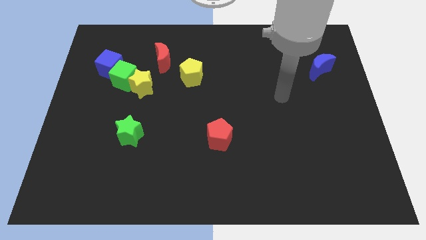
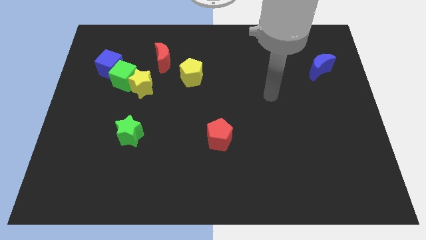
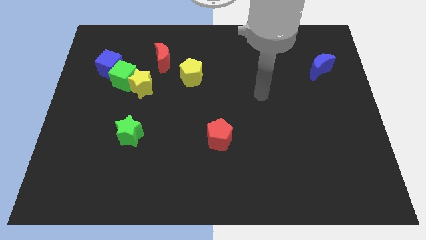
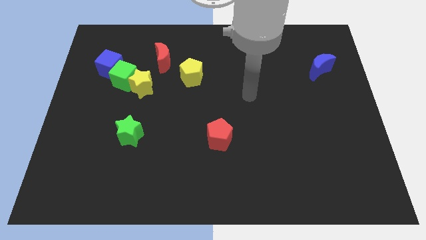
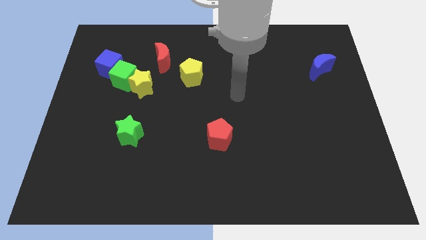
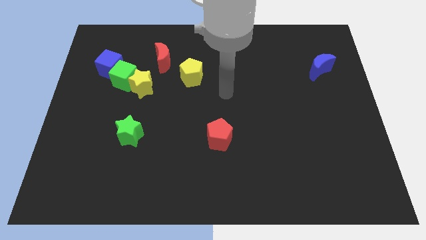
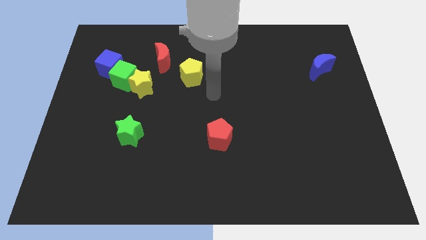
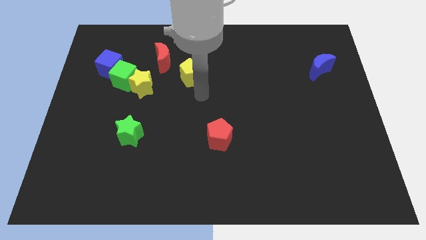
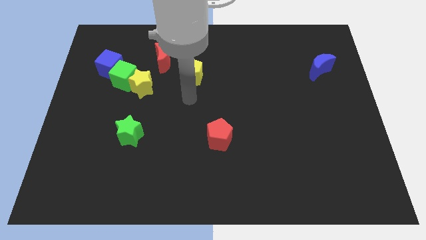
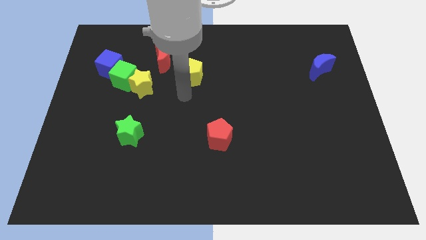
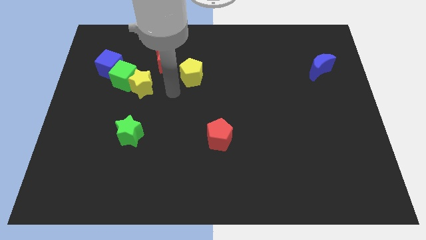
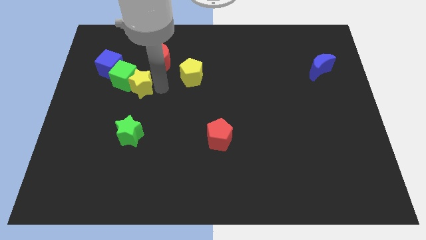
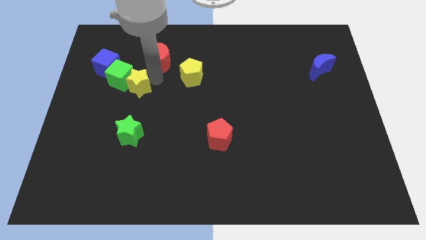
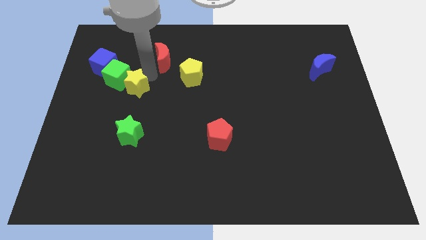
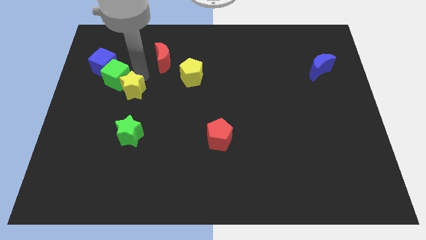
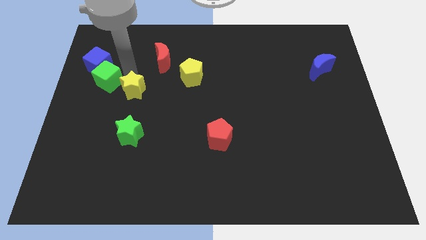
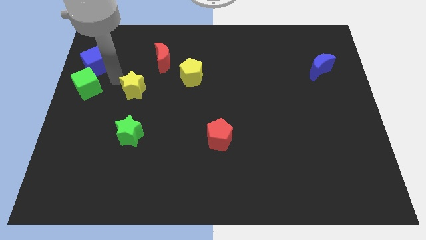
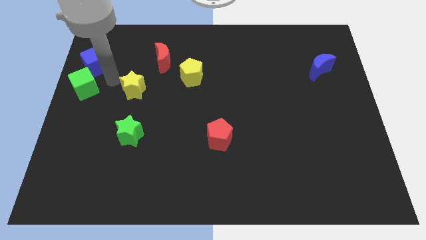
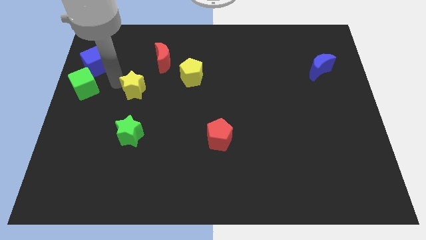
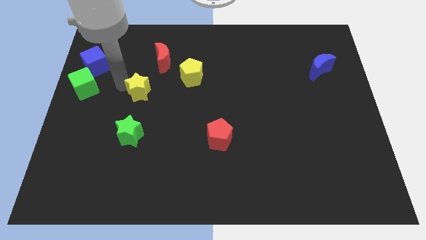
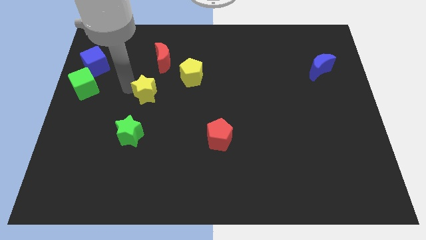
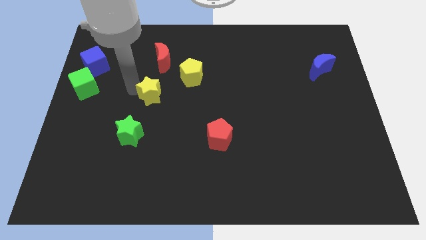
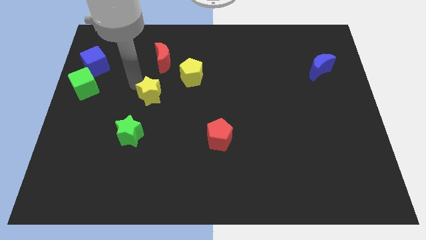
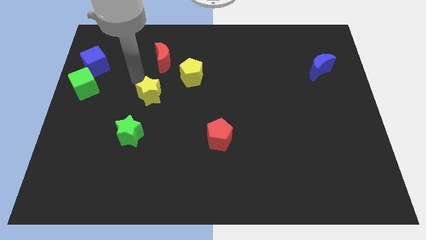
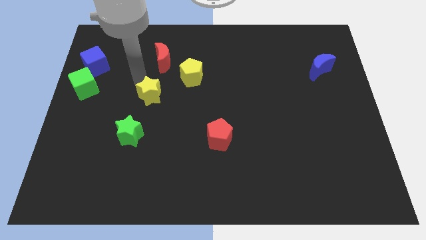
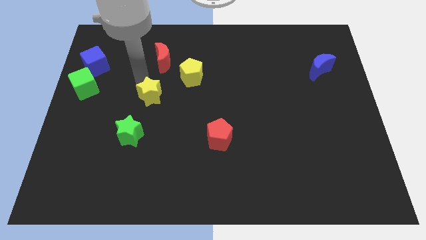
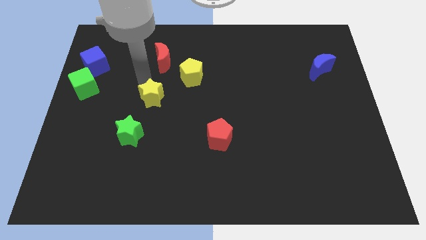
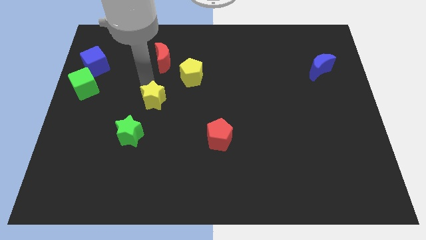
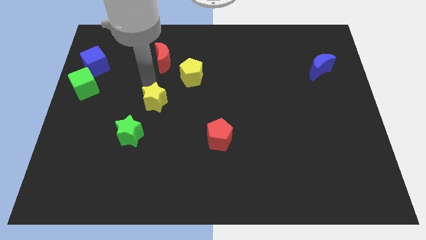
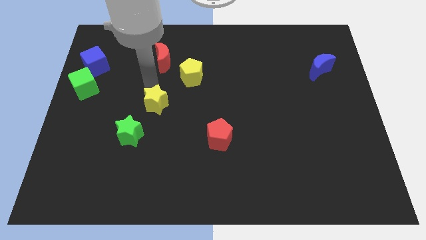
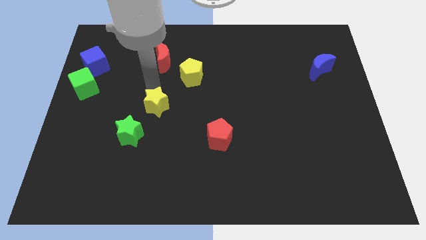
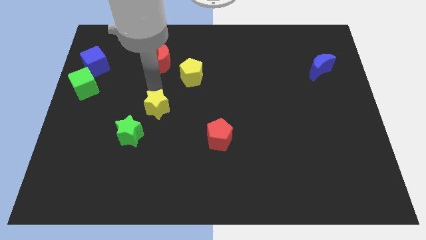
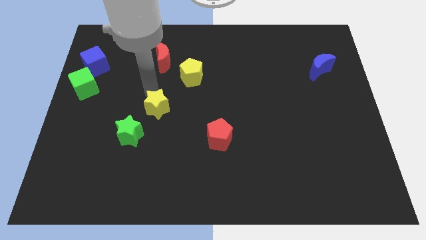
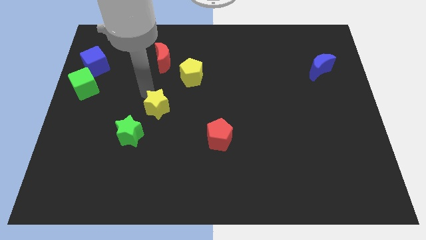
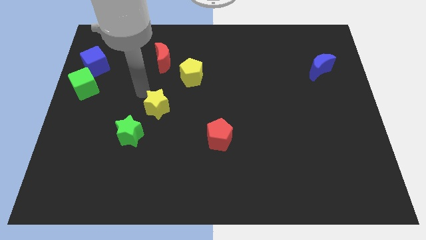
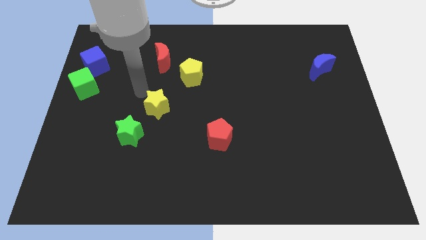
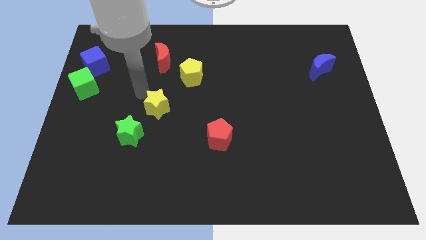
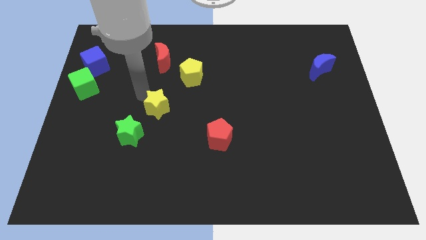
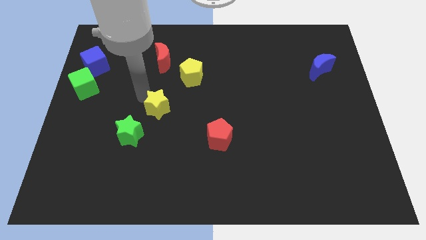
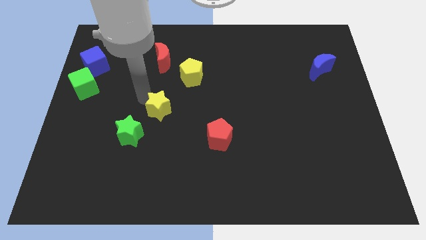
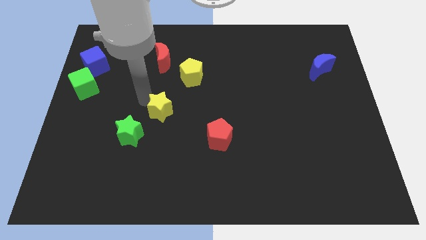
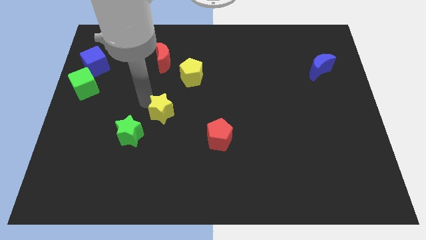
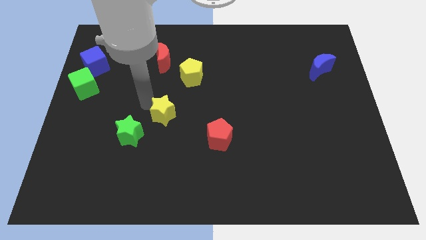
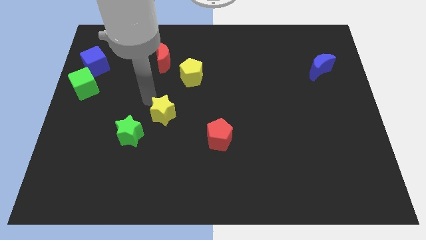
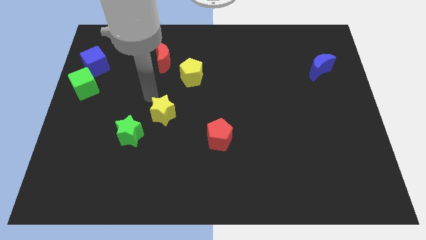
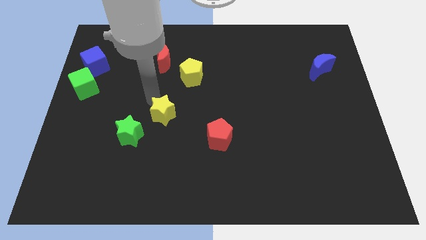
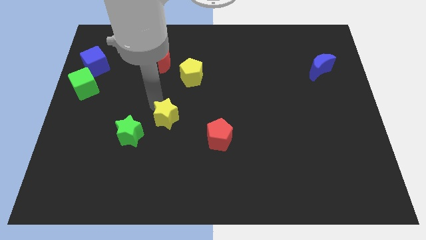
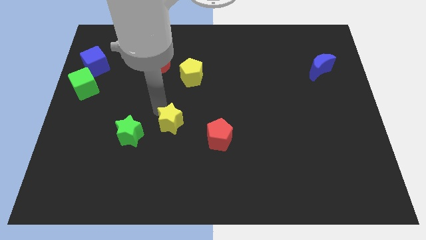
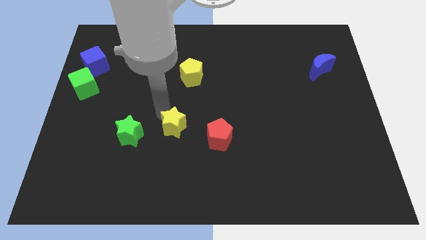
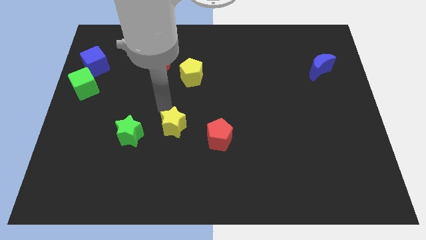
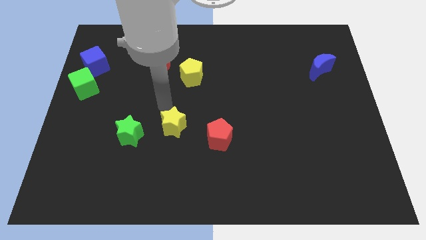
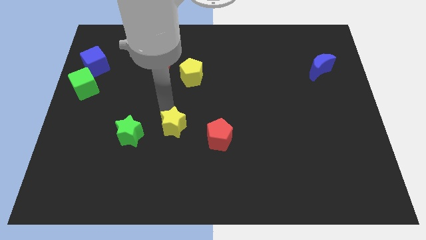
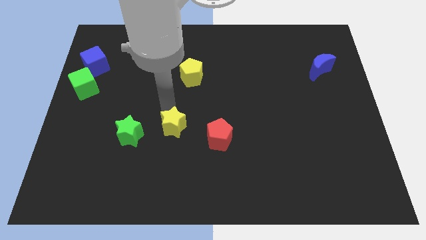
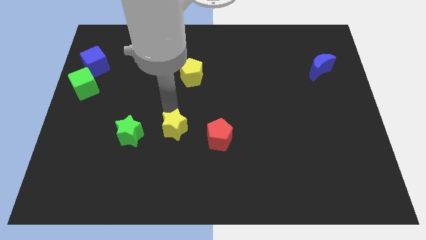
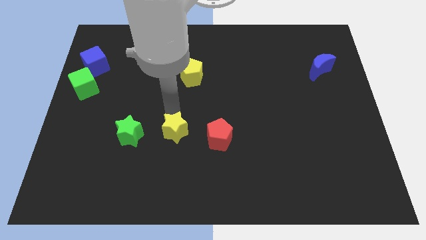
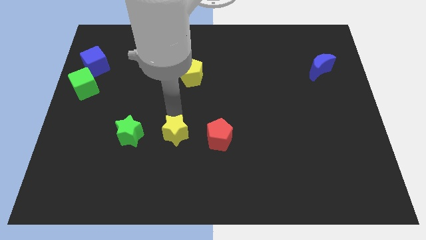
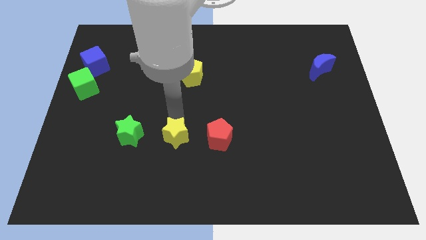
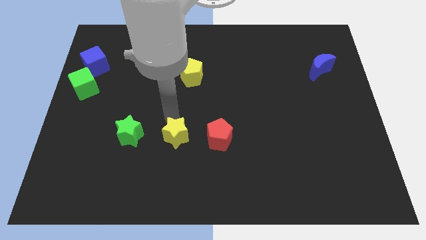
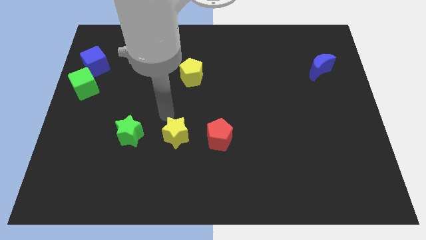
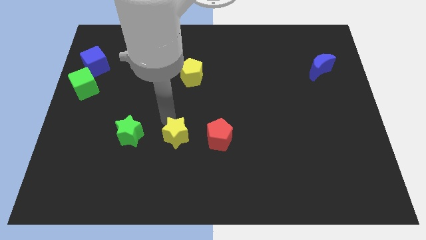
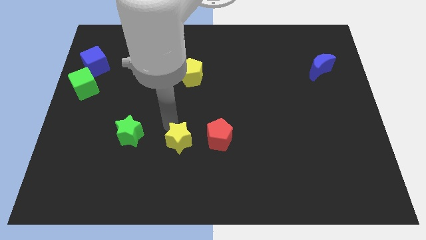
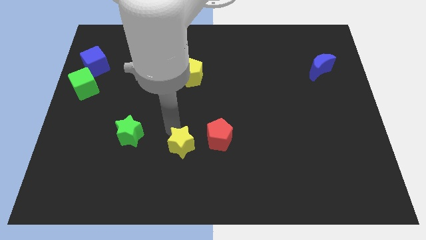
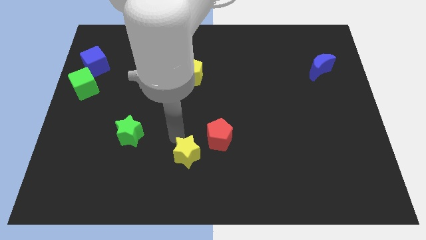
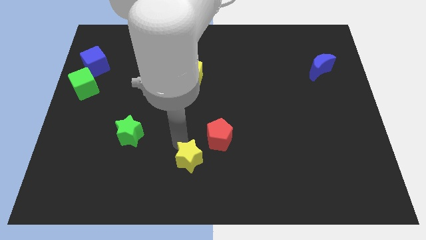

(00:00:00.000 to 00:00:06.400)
move the yellow star to the bottom side

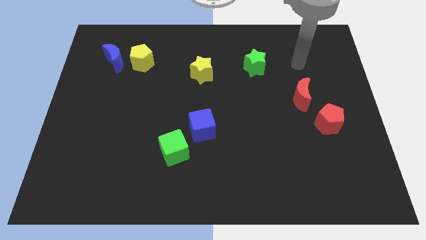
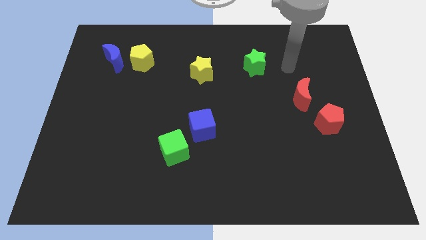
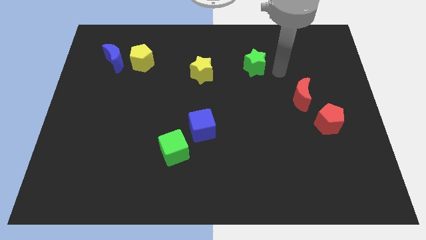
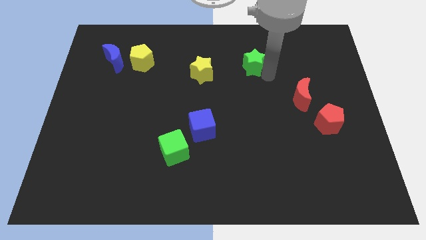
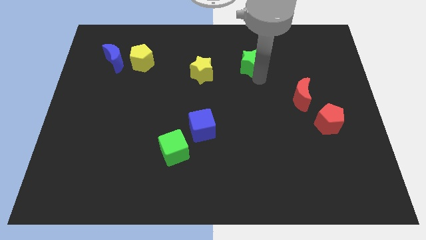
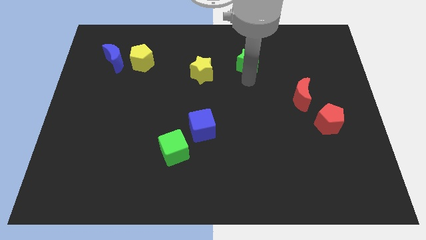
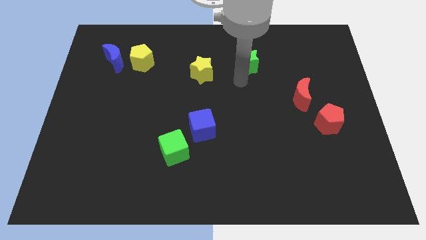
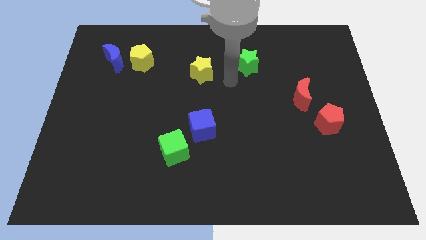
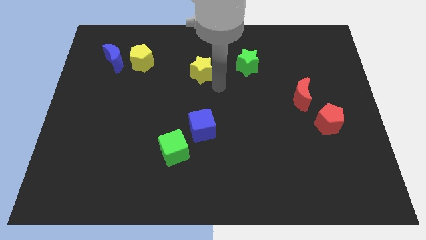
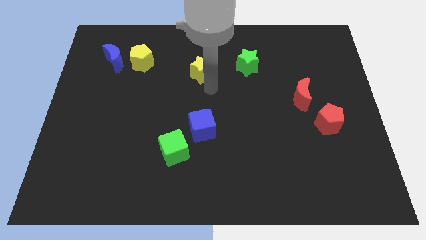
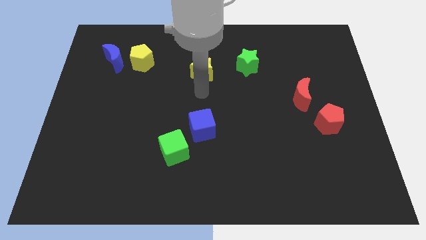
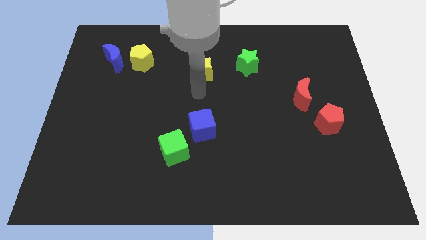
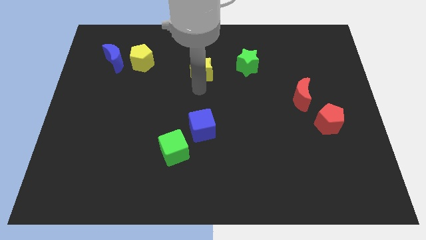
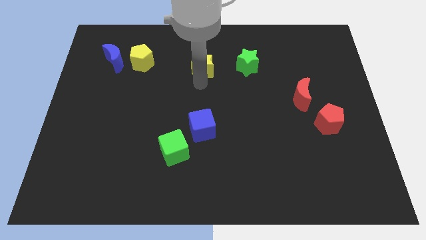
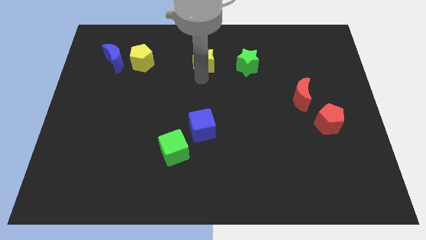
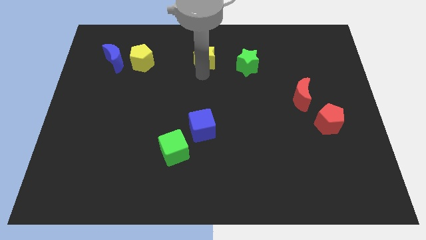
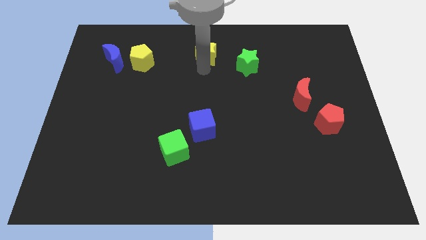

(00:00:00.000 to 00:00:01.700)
move the yellow star to the top side
